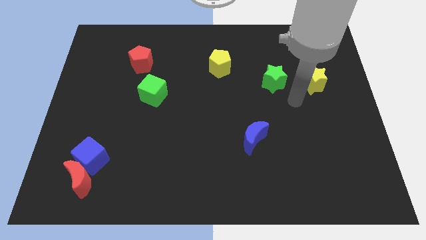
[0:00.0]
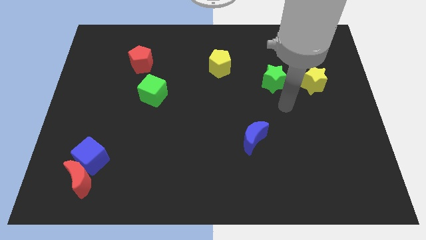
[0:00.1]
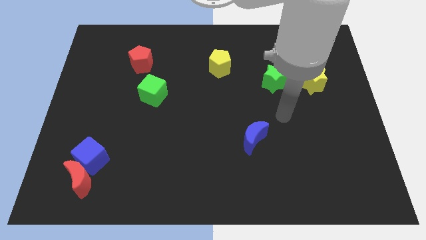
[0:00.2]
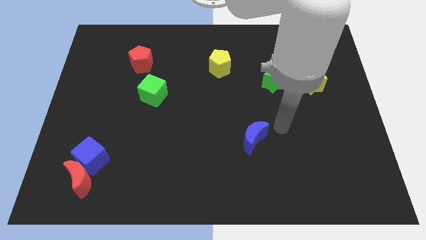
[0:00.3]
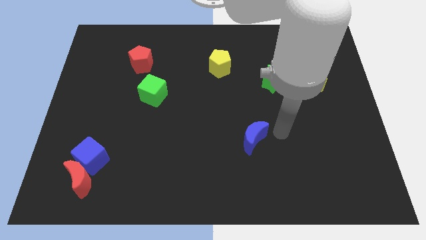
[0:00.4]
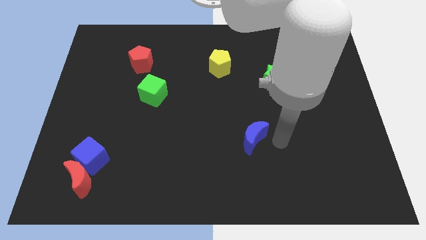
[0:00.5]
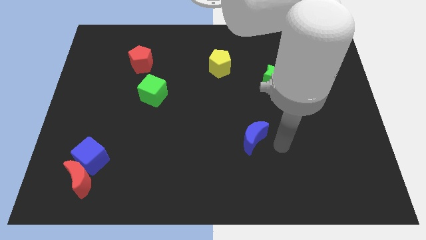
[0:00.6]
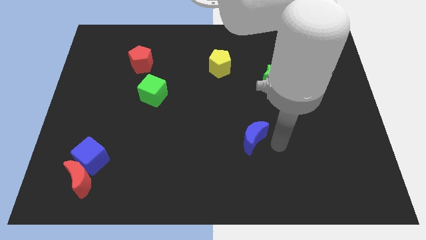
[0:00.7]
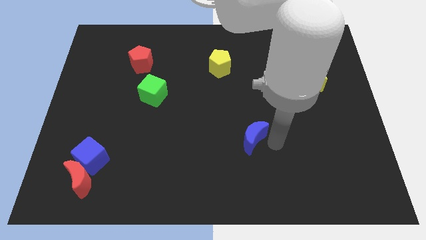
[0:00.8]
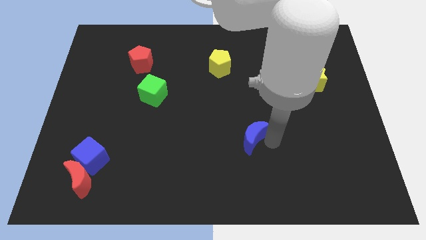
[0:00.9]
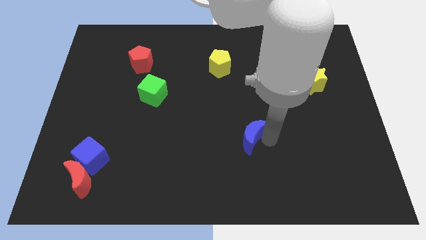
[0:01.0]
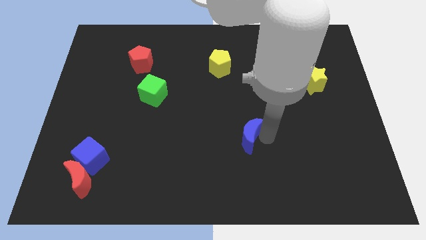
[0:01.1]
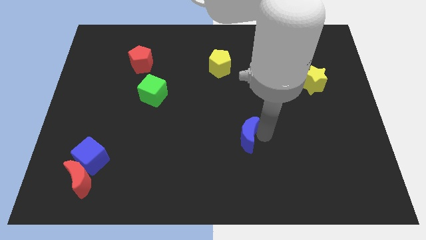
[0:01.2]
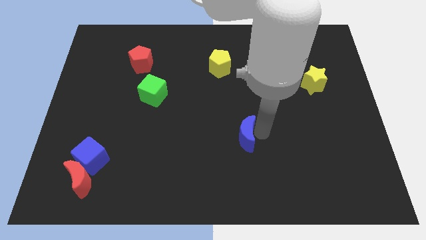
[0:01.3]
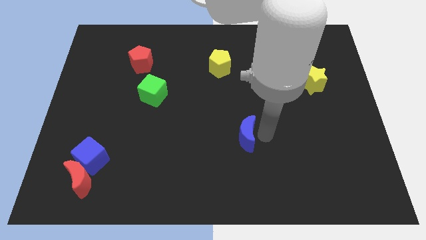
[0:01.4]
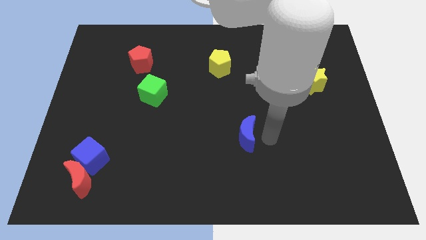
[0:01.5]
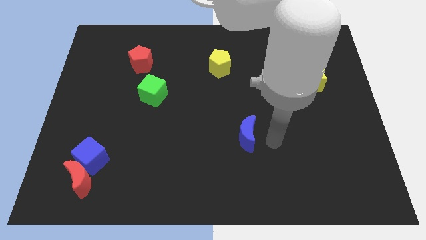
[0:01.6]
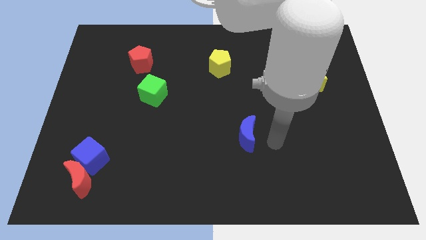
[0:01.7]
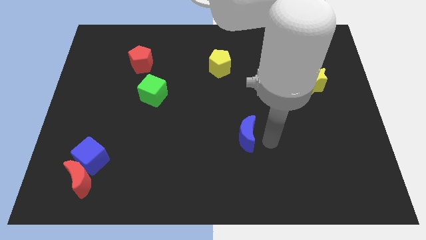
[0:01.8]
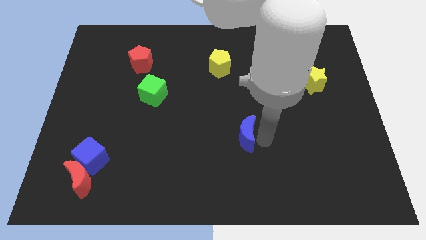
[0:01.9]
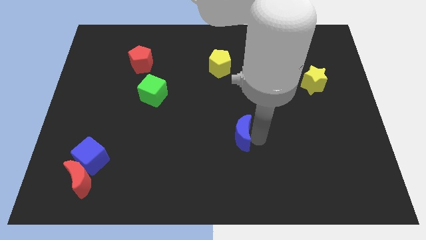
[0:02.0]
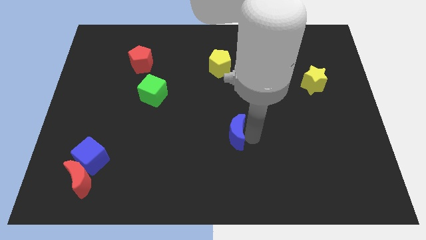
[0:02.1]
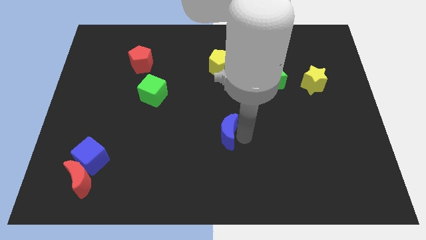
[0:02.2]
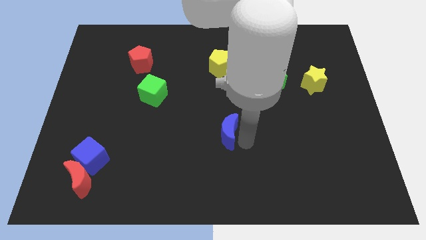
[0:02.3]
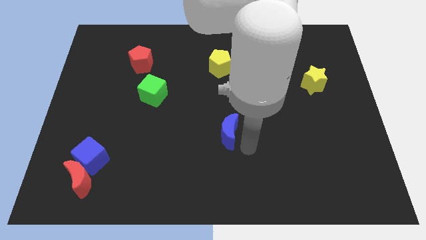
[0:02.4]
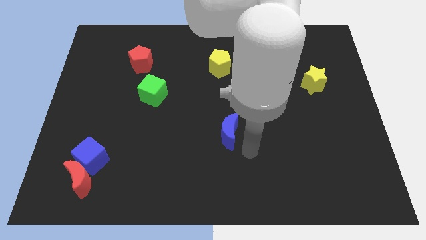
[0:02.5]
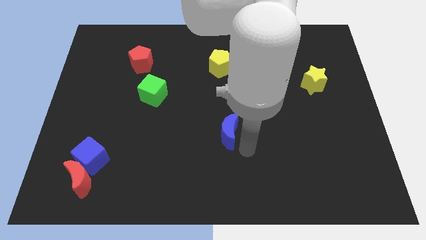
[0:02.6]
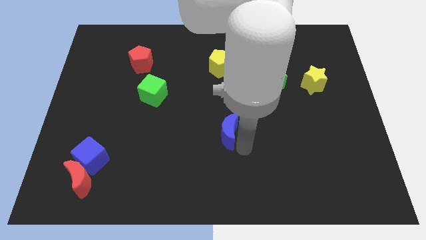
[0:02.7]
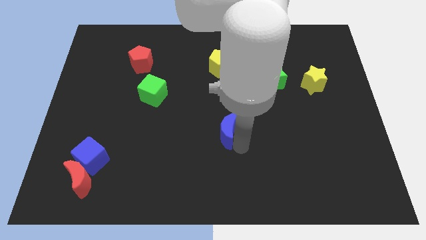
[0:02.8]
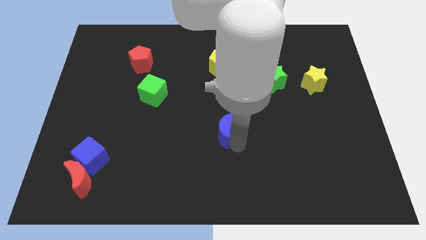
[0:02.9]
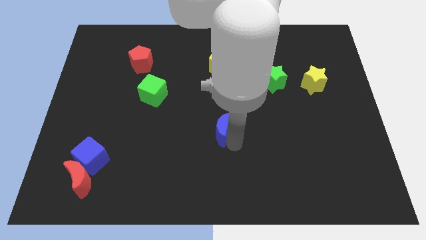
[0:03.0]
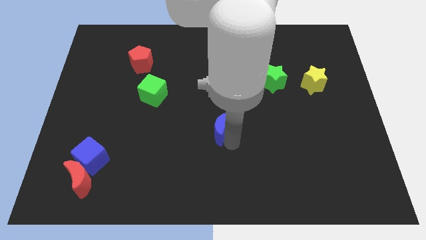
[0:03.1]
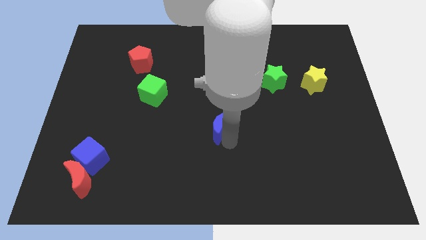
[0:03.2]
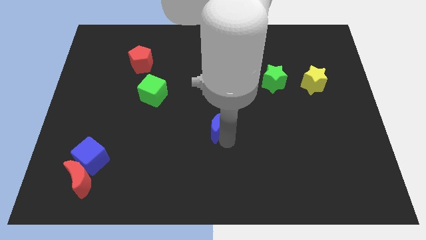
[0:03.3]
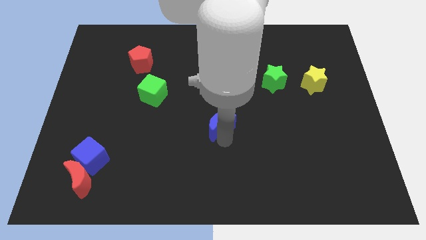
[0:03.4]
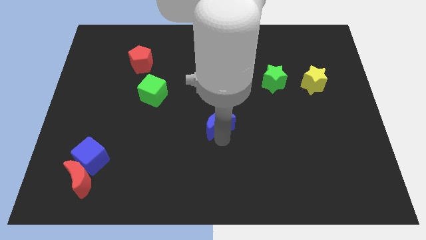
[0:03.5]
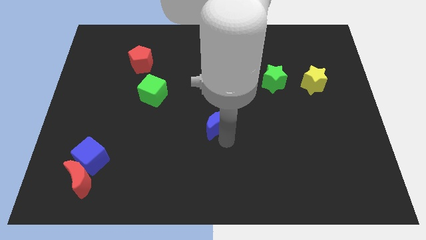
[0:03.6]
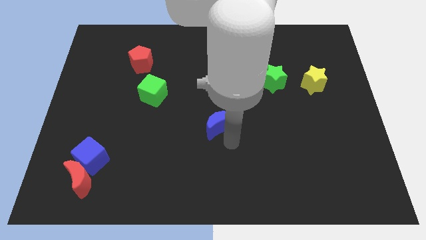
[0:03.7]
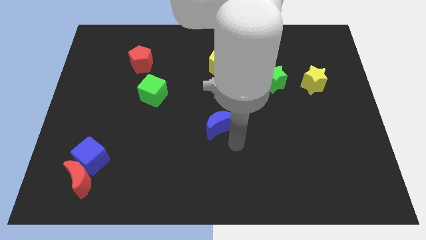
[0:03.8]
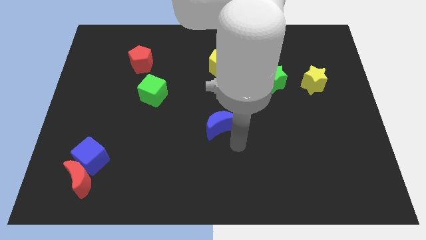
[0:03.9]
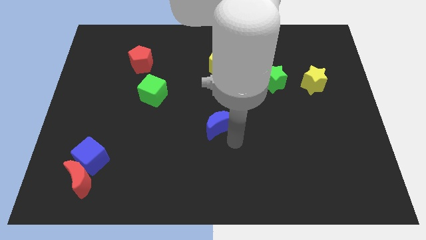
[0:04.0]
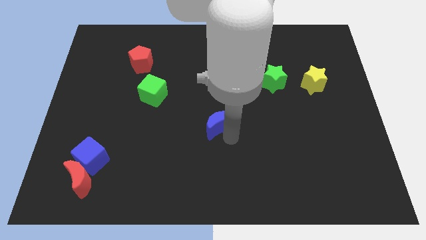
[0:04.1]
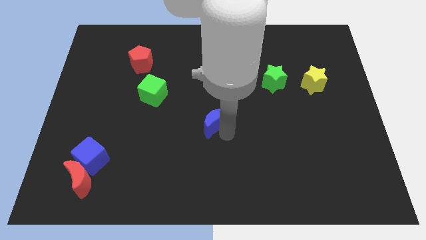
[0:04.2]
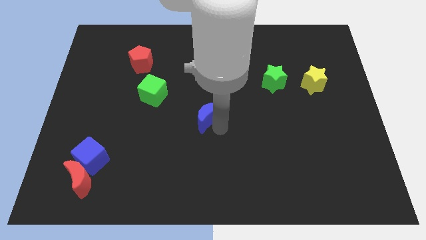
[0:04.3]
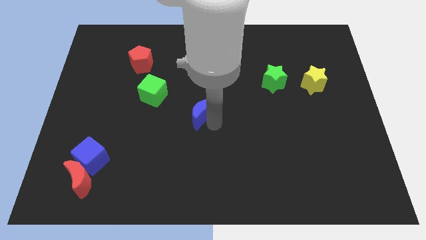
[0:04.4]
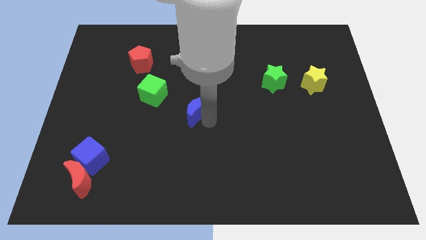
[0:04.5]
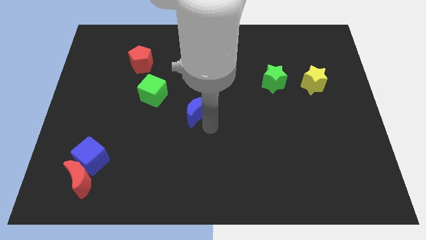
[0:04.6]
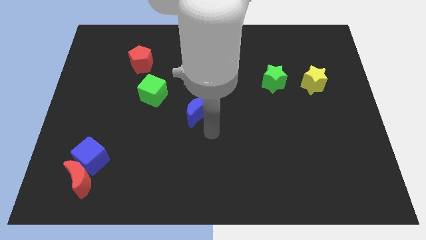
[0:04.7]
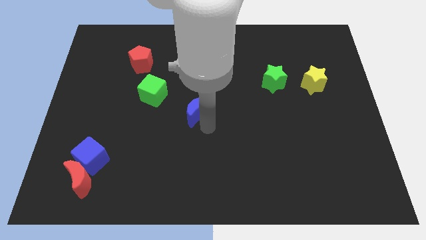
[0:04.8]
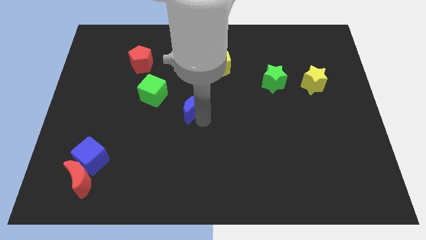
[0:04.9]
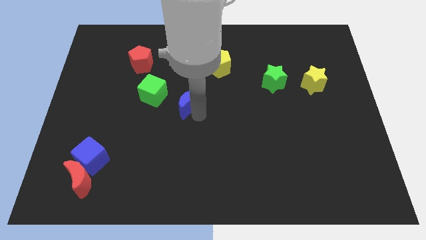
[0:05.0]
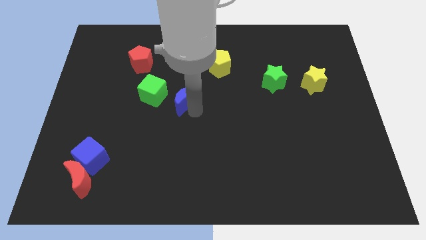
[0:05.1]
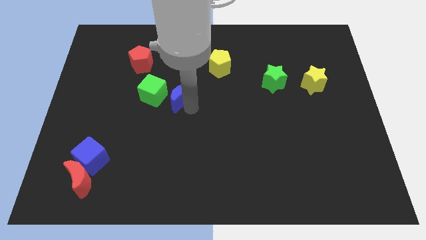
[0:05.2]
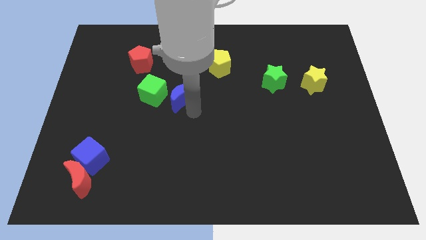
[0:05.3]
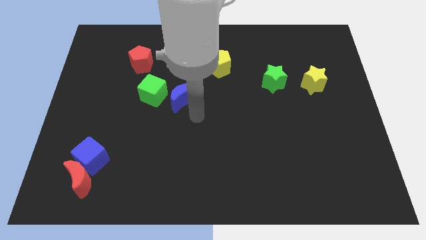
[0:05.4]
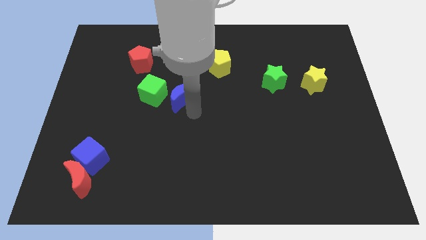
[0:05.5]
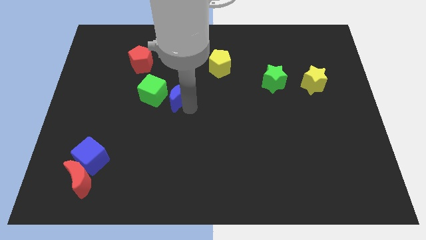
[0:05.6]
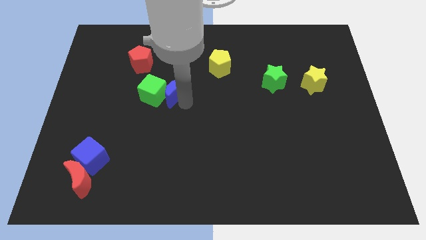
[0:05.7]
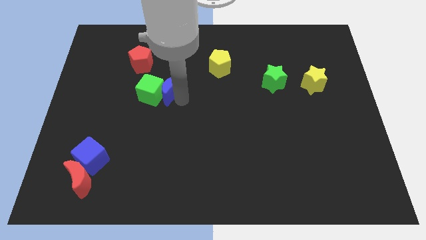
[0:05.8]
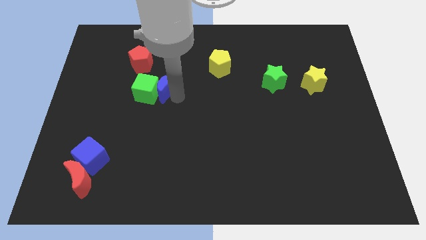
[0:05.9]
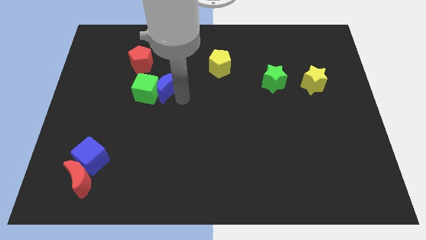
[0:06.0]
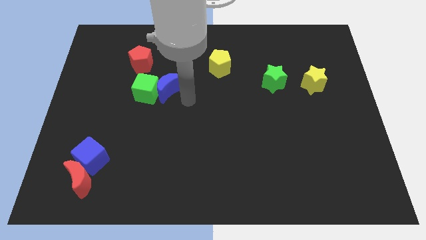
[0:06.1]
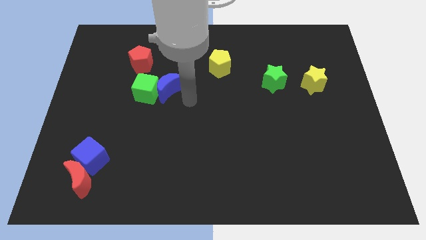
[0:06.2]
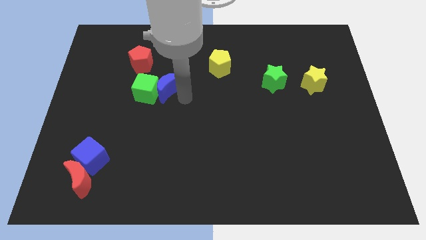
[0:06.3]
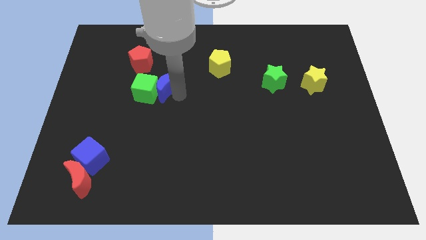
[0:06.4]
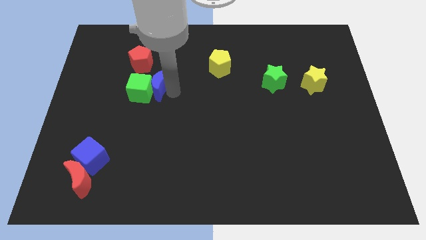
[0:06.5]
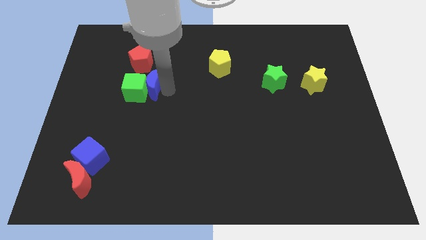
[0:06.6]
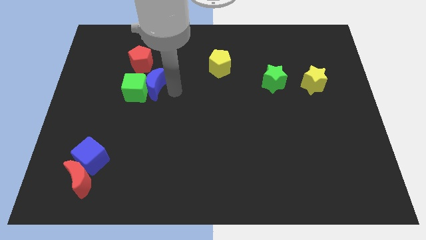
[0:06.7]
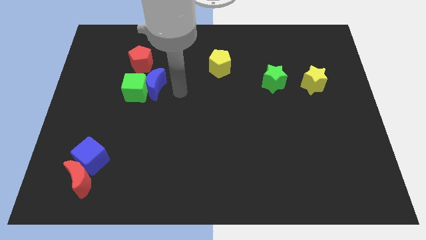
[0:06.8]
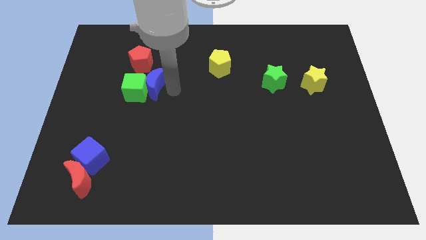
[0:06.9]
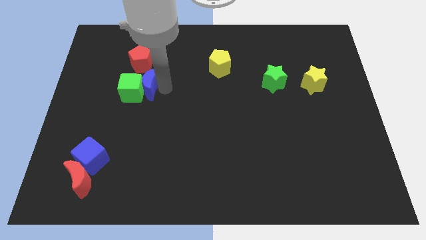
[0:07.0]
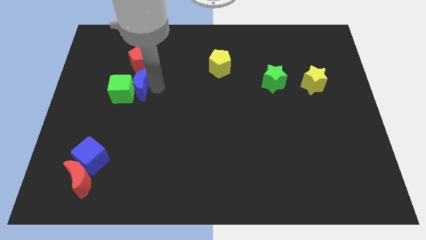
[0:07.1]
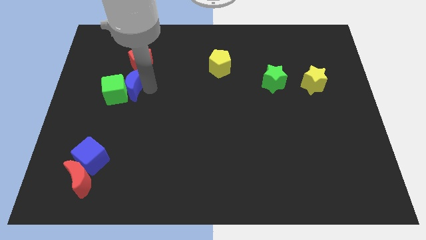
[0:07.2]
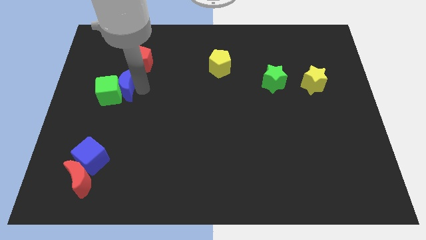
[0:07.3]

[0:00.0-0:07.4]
move the blue moon diagonally down and to the left of the red pentagon
